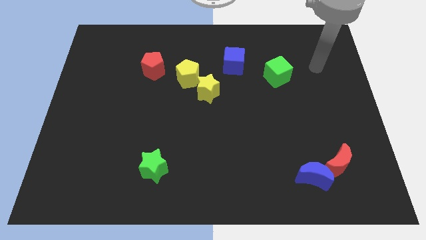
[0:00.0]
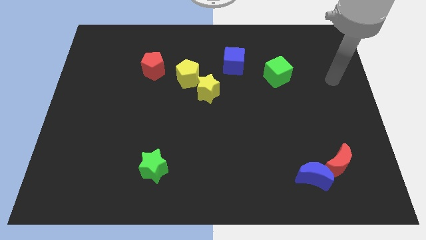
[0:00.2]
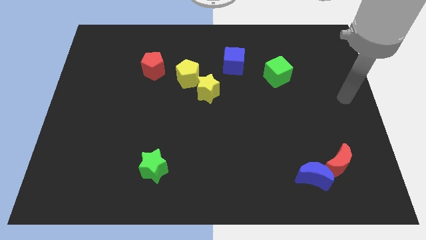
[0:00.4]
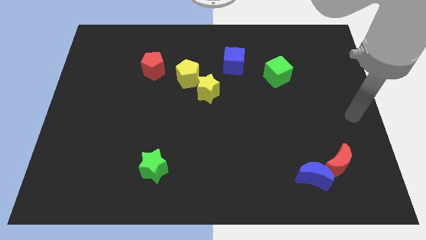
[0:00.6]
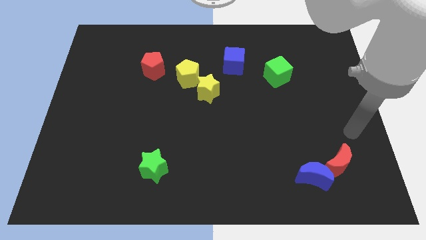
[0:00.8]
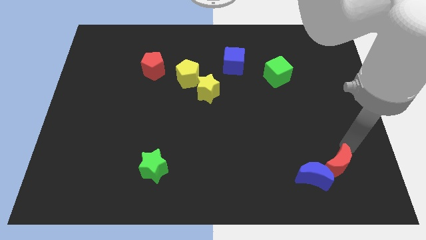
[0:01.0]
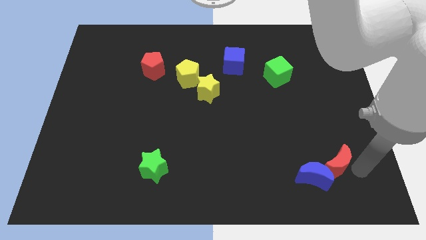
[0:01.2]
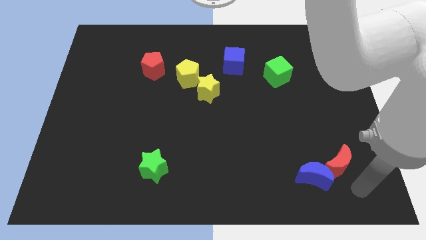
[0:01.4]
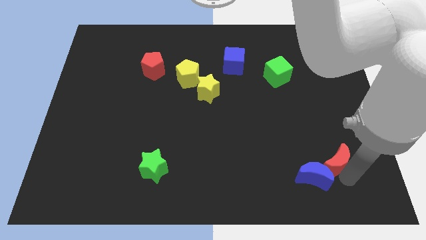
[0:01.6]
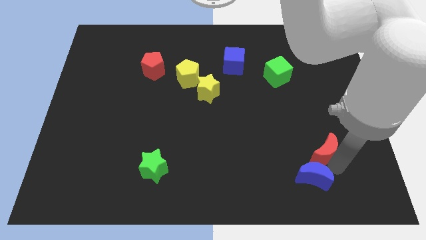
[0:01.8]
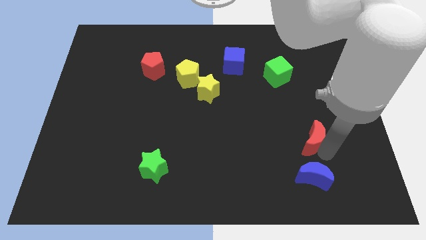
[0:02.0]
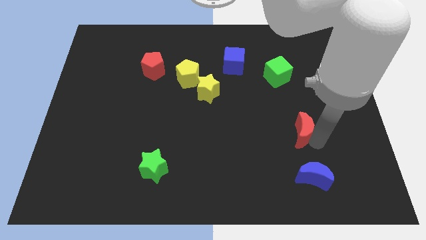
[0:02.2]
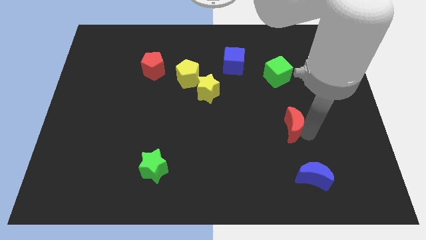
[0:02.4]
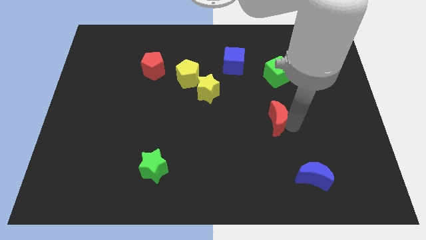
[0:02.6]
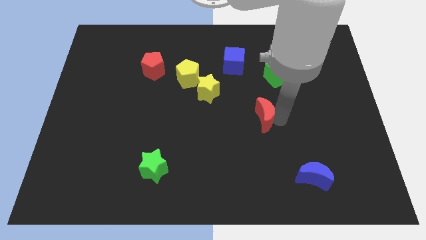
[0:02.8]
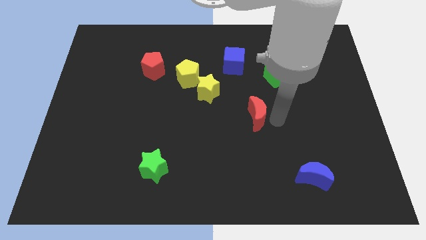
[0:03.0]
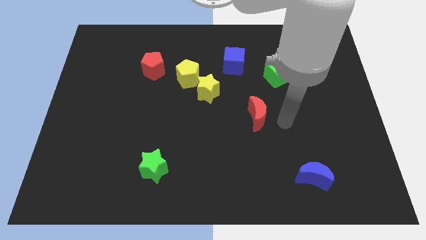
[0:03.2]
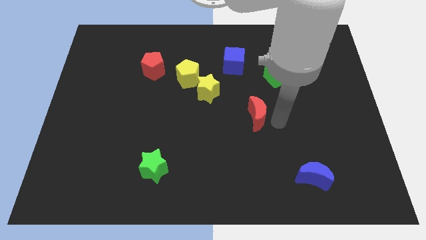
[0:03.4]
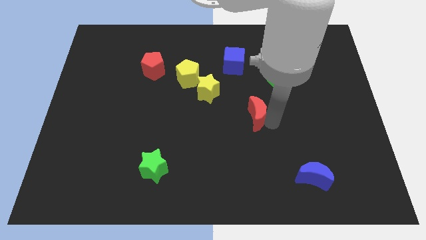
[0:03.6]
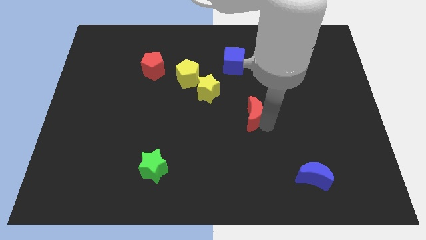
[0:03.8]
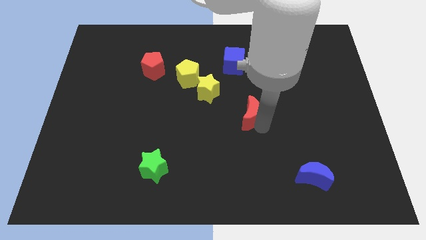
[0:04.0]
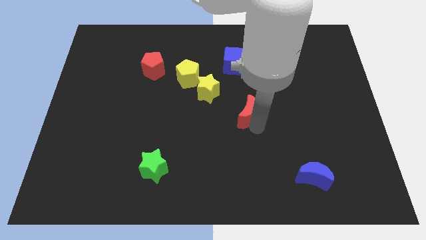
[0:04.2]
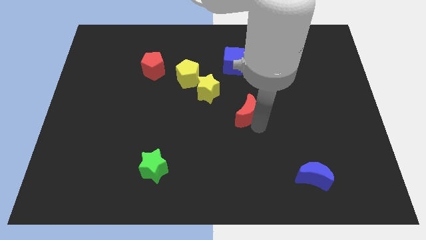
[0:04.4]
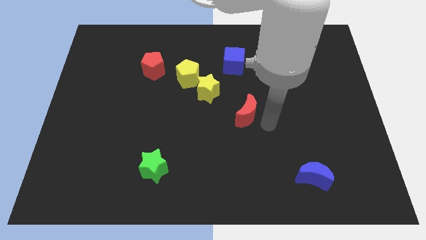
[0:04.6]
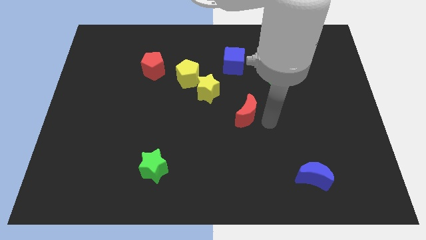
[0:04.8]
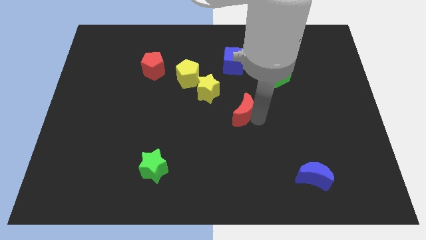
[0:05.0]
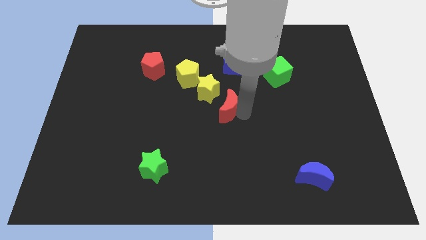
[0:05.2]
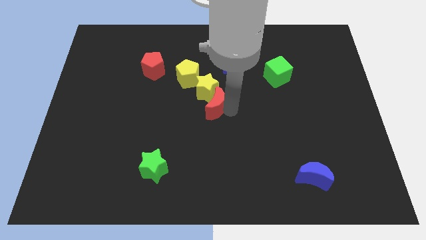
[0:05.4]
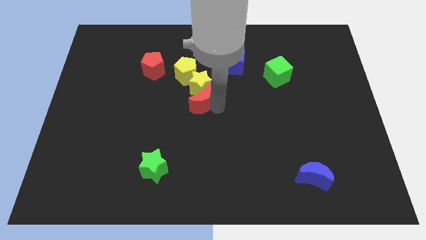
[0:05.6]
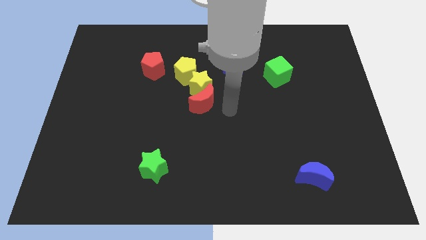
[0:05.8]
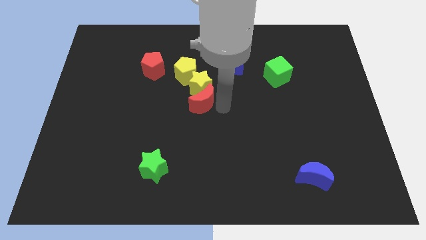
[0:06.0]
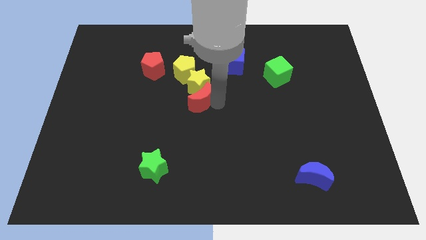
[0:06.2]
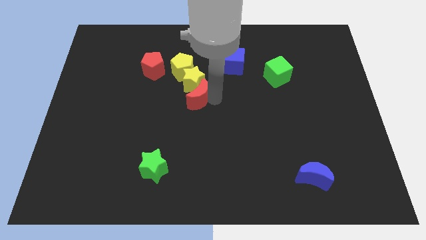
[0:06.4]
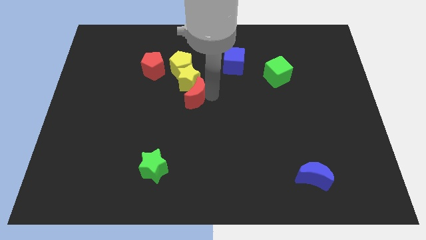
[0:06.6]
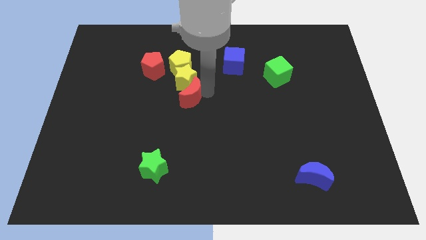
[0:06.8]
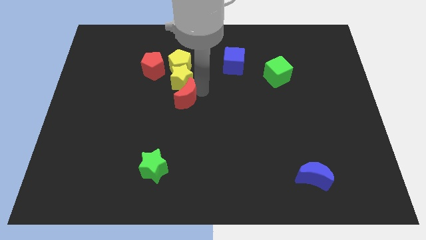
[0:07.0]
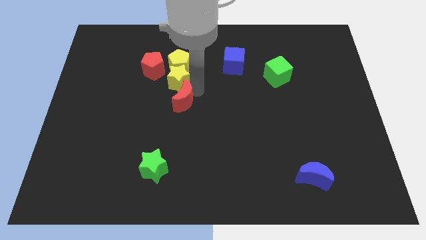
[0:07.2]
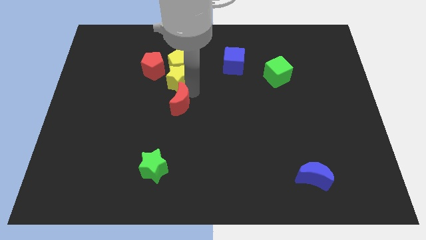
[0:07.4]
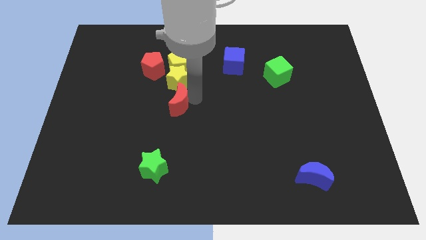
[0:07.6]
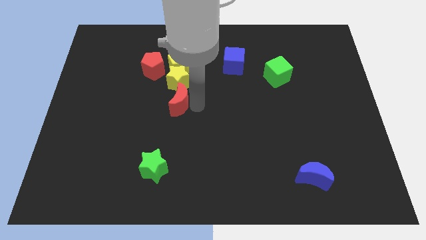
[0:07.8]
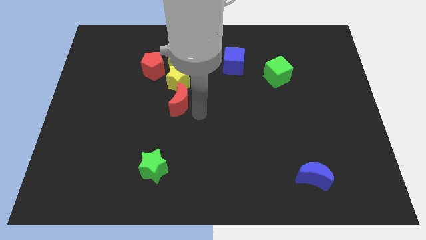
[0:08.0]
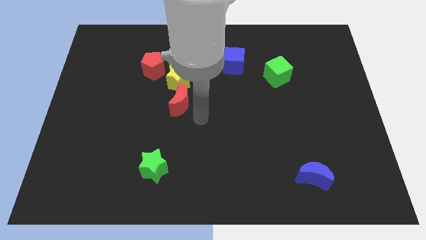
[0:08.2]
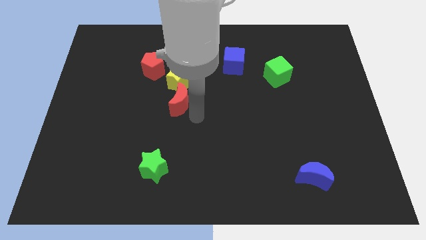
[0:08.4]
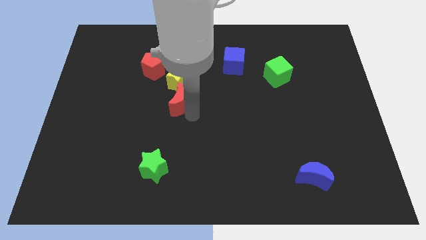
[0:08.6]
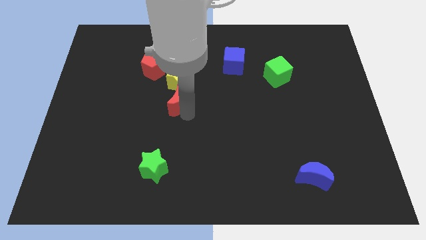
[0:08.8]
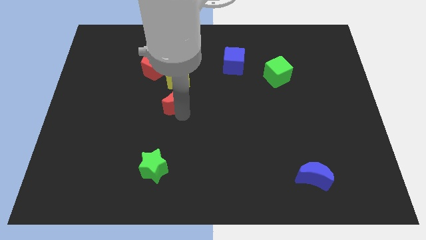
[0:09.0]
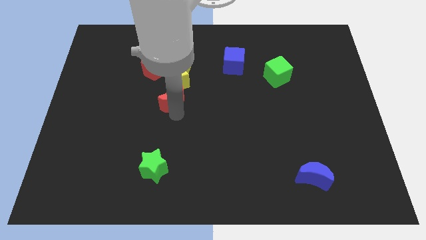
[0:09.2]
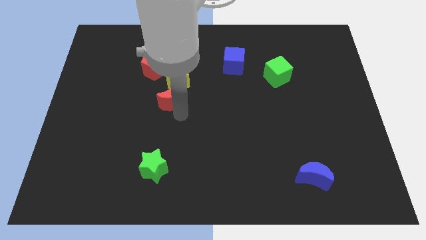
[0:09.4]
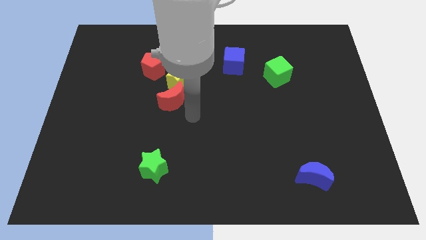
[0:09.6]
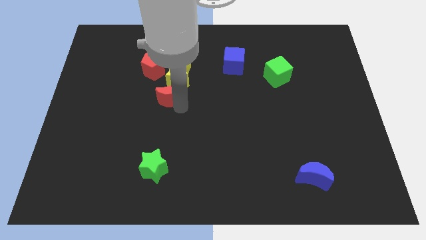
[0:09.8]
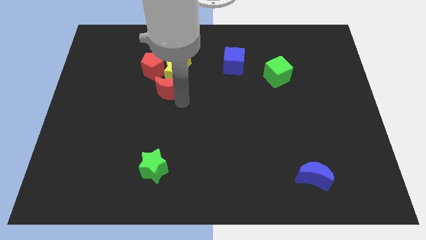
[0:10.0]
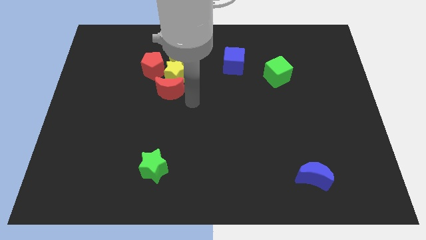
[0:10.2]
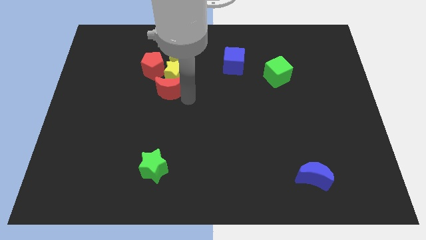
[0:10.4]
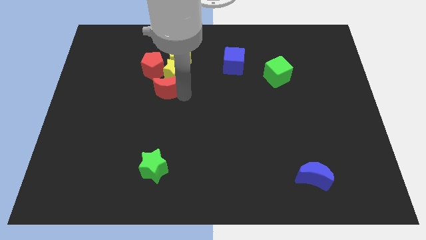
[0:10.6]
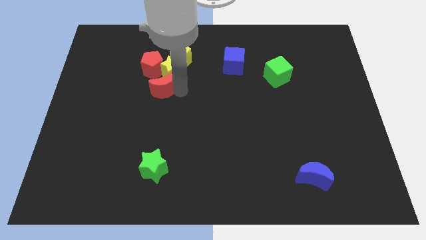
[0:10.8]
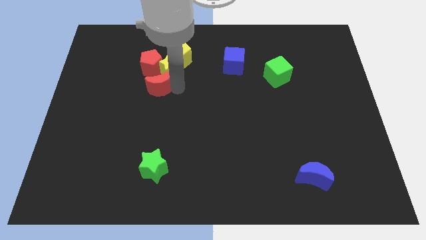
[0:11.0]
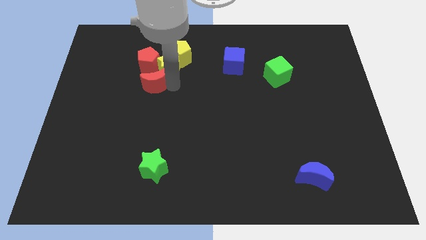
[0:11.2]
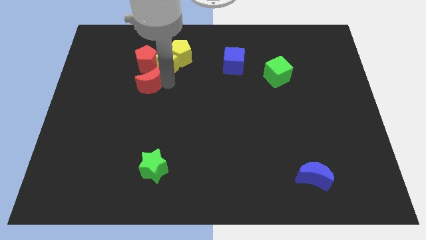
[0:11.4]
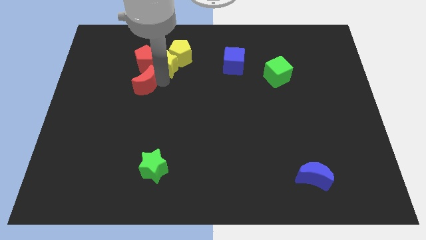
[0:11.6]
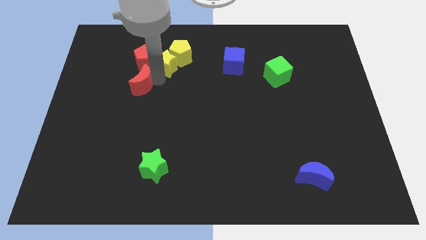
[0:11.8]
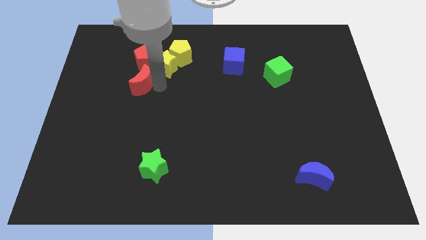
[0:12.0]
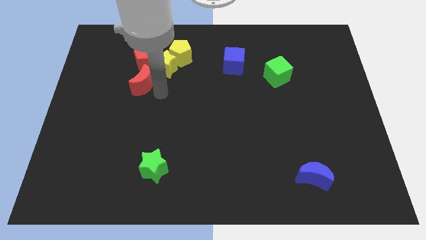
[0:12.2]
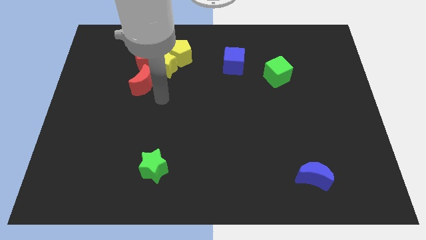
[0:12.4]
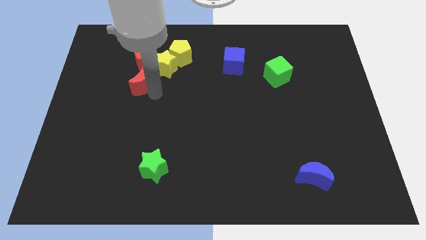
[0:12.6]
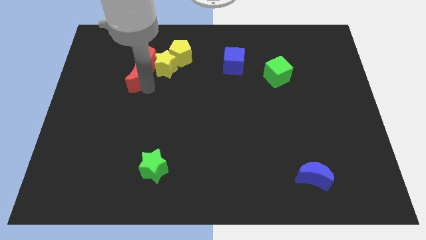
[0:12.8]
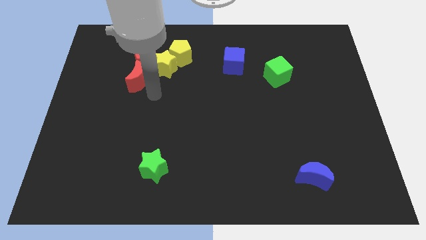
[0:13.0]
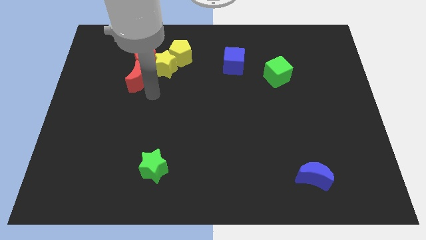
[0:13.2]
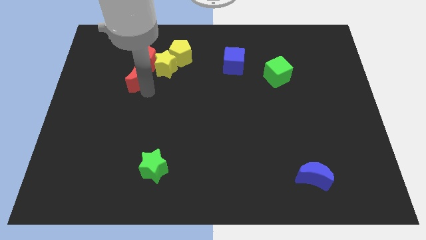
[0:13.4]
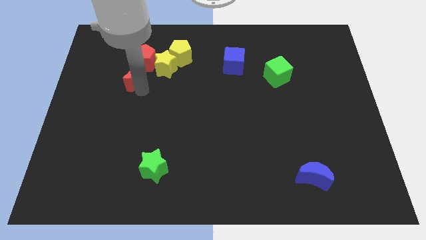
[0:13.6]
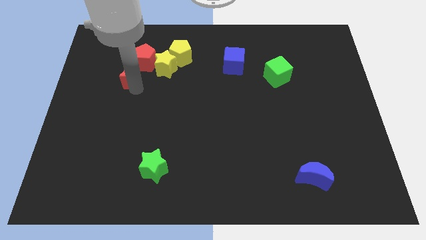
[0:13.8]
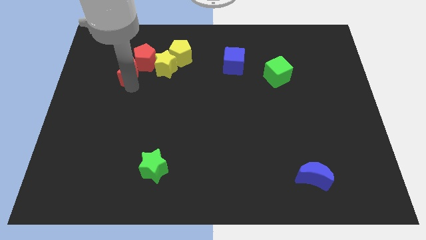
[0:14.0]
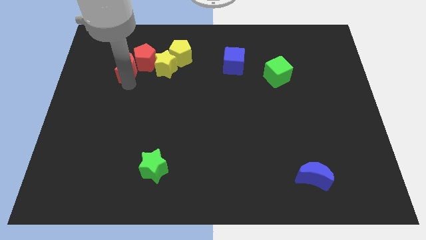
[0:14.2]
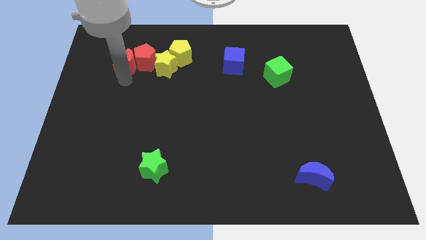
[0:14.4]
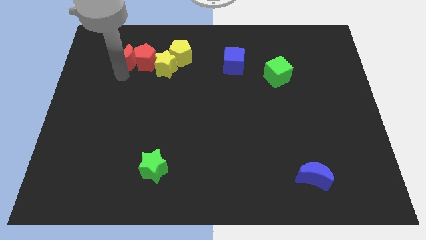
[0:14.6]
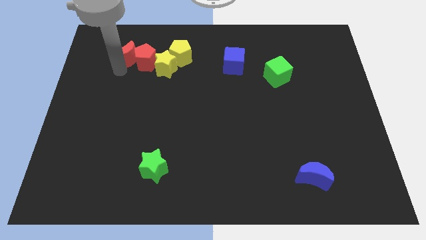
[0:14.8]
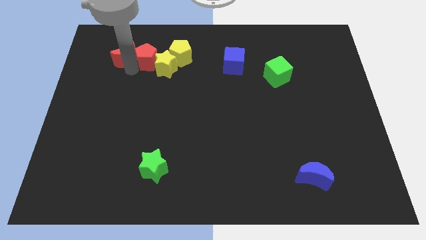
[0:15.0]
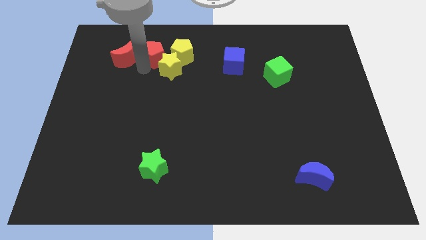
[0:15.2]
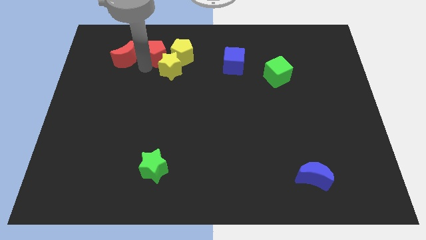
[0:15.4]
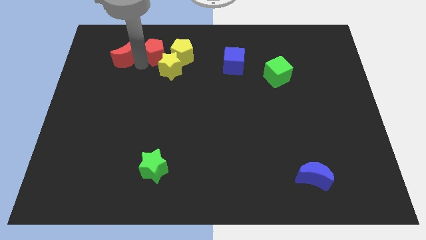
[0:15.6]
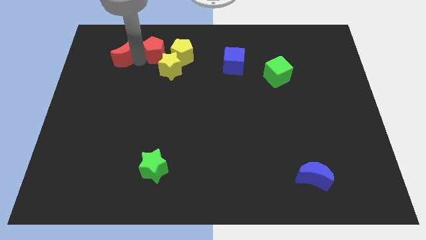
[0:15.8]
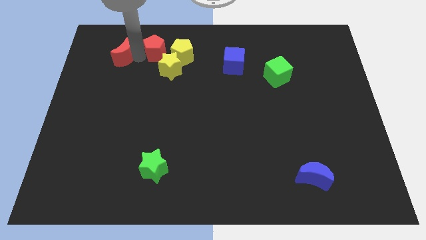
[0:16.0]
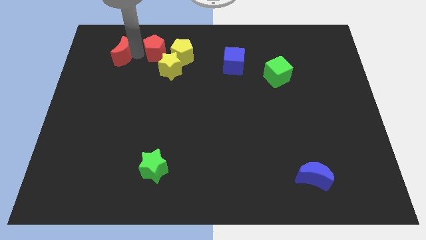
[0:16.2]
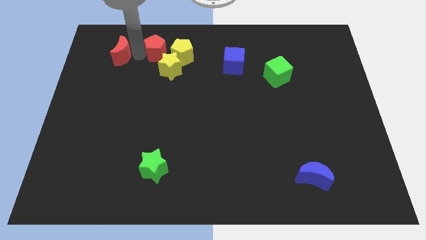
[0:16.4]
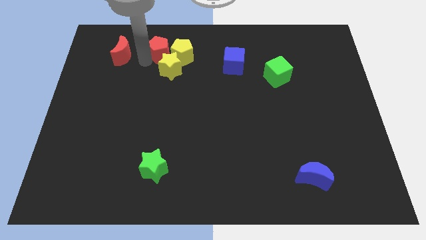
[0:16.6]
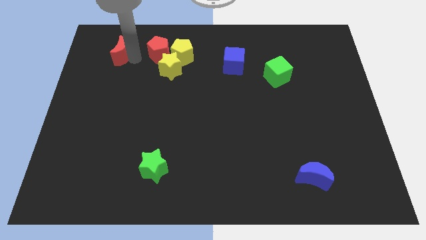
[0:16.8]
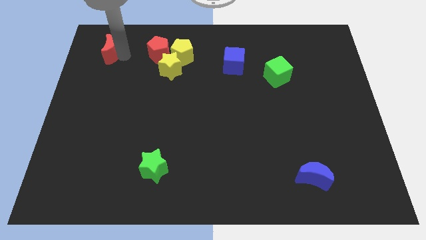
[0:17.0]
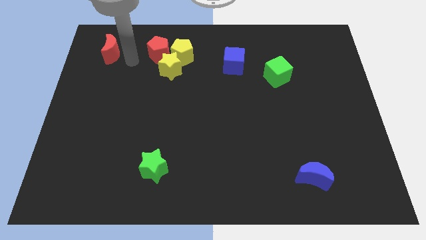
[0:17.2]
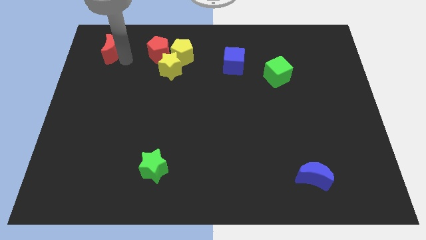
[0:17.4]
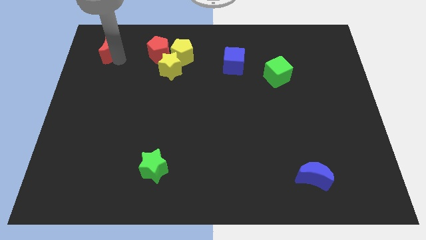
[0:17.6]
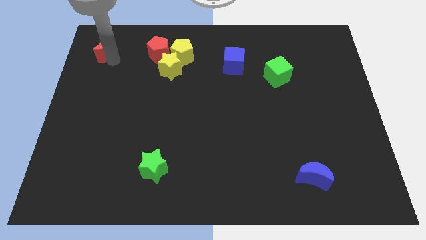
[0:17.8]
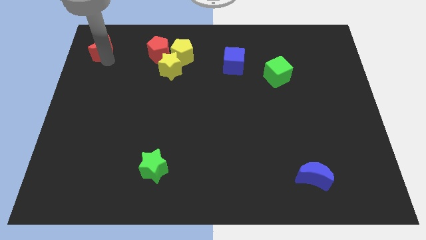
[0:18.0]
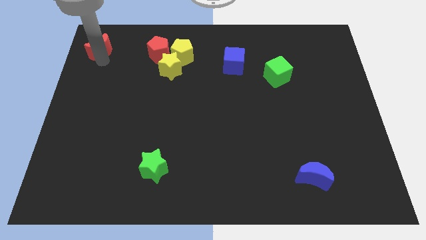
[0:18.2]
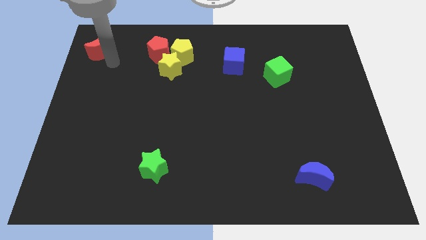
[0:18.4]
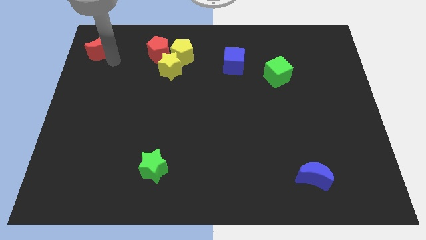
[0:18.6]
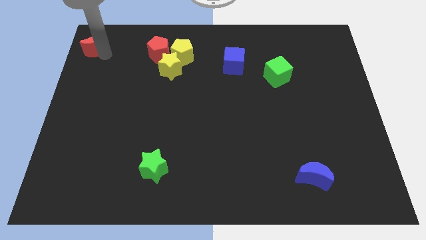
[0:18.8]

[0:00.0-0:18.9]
put the red moon to the upper left corner
